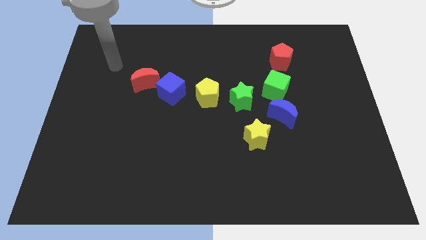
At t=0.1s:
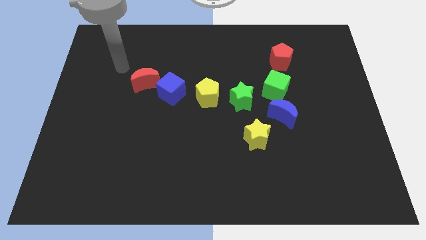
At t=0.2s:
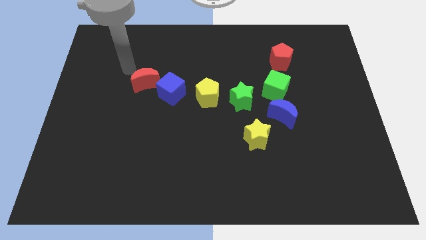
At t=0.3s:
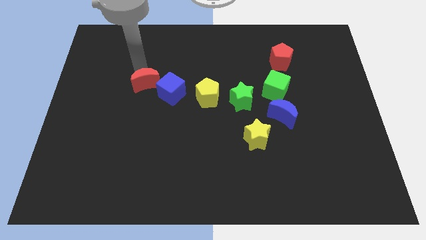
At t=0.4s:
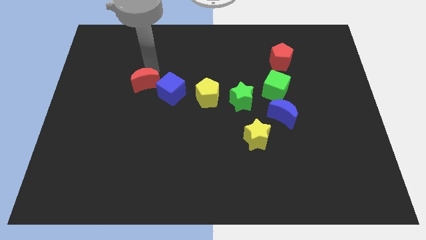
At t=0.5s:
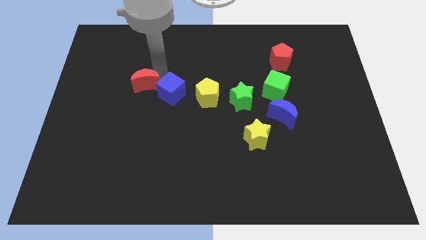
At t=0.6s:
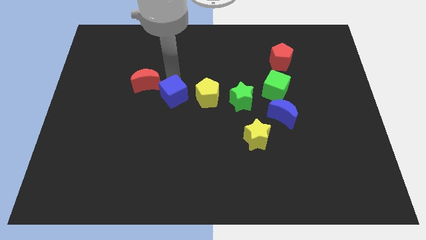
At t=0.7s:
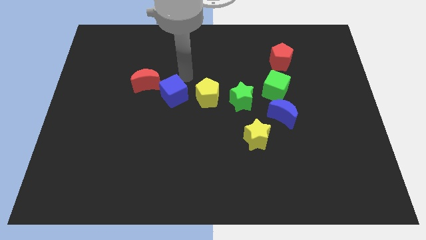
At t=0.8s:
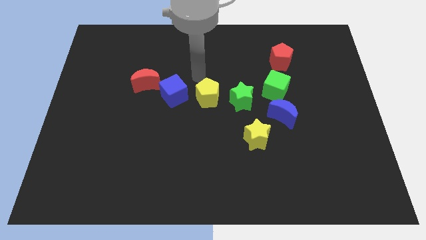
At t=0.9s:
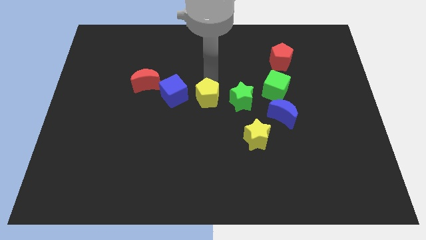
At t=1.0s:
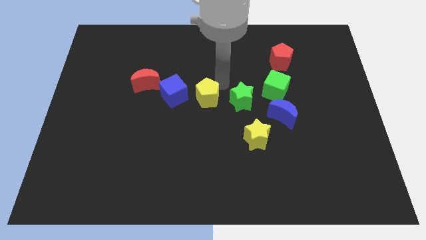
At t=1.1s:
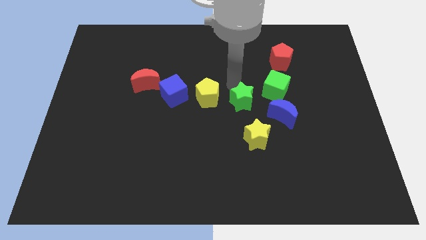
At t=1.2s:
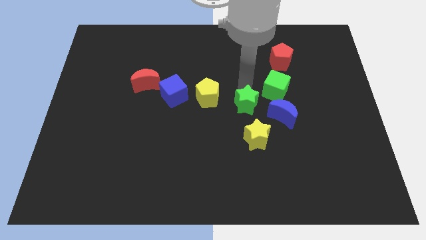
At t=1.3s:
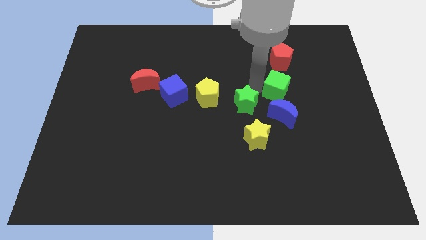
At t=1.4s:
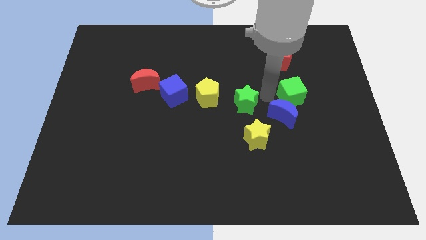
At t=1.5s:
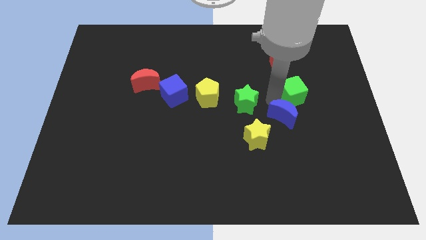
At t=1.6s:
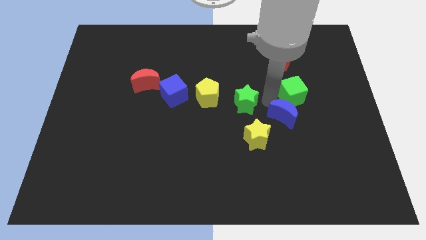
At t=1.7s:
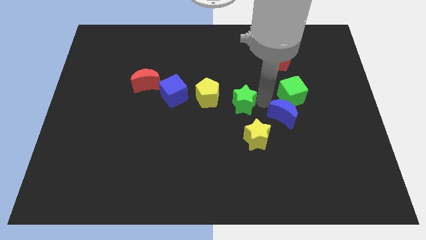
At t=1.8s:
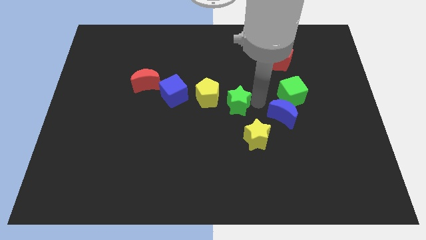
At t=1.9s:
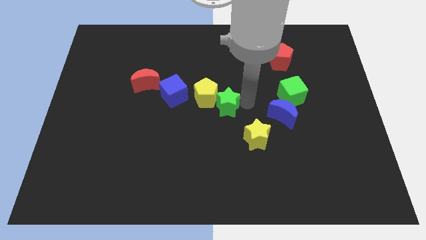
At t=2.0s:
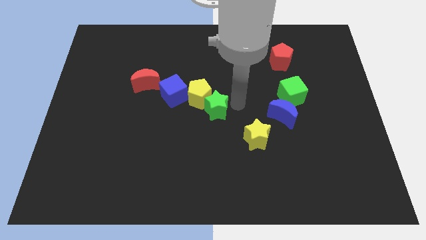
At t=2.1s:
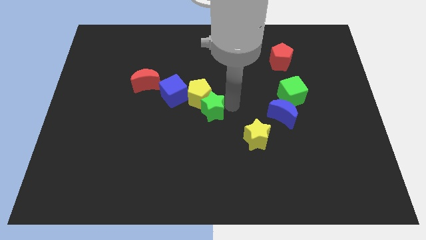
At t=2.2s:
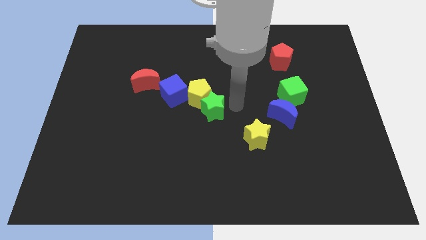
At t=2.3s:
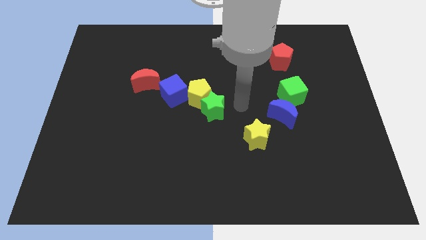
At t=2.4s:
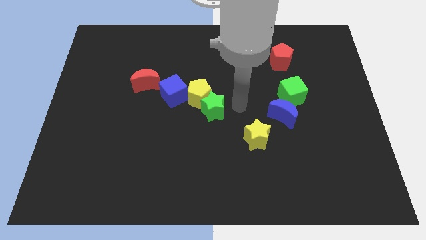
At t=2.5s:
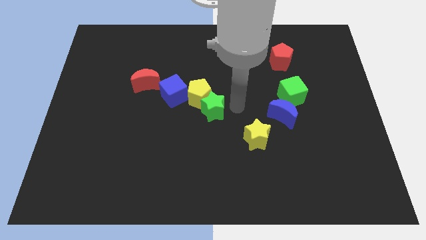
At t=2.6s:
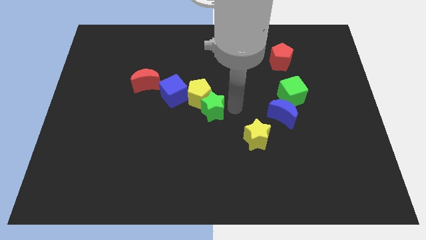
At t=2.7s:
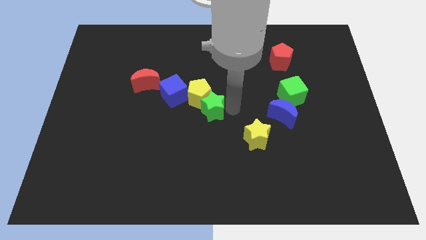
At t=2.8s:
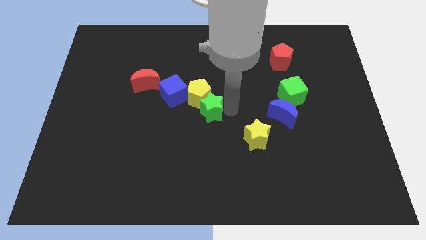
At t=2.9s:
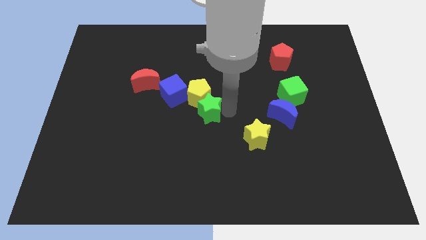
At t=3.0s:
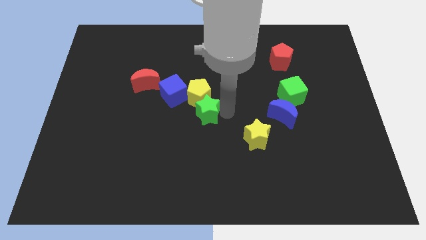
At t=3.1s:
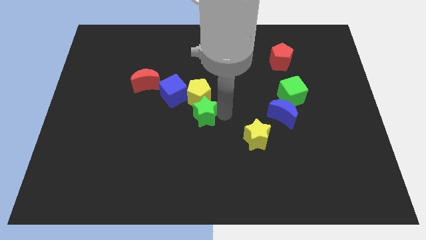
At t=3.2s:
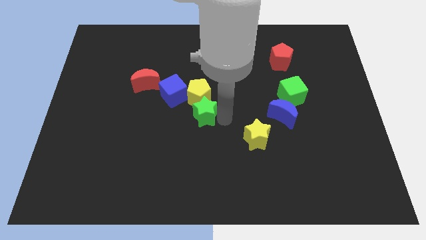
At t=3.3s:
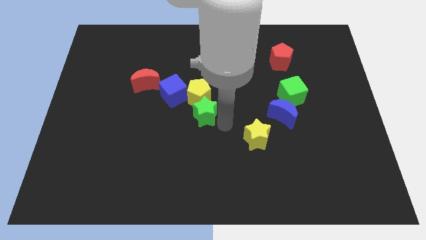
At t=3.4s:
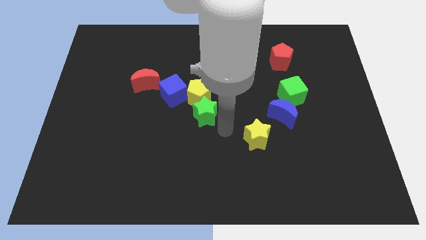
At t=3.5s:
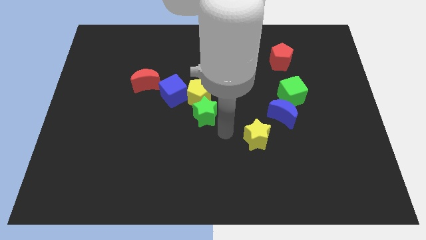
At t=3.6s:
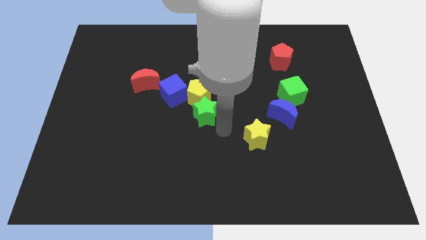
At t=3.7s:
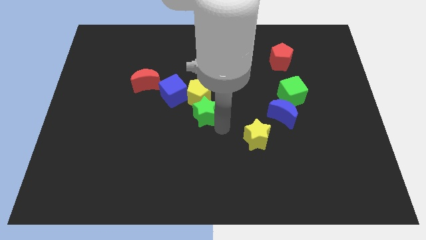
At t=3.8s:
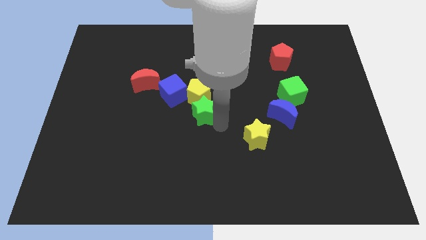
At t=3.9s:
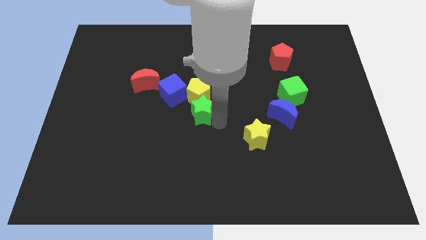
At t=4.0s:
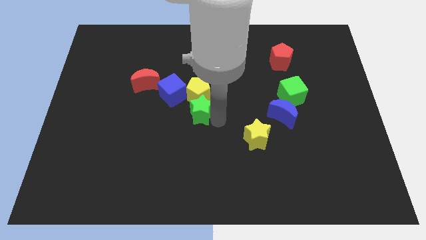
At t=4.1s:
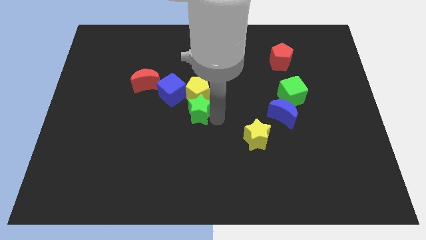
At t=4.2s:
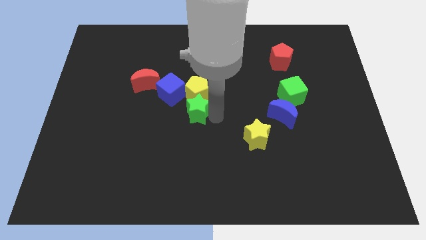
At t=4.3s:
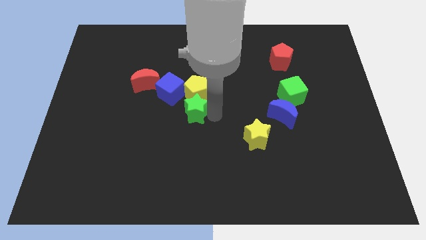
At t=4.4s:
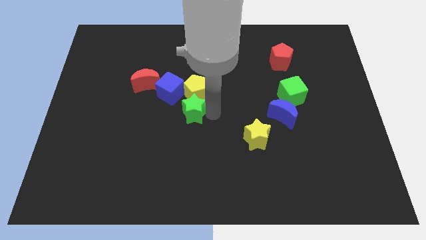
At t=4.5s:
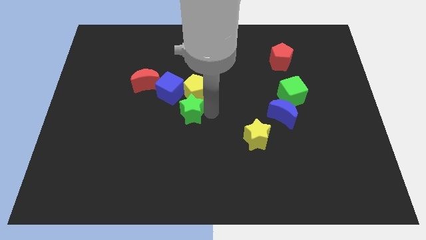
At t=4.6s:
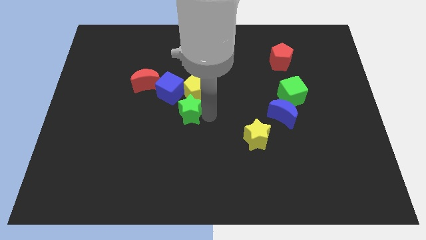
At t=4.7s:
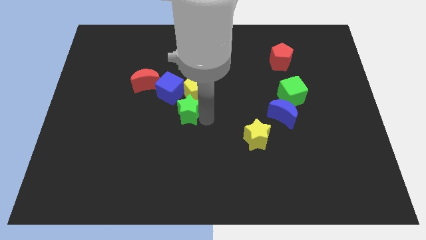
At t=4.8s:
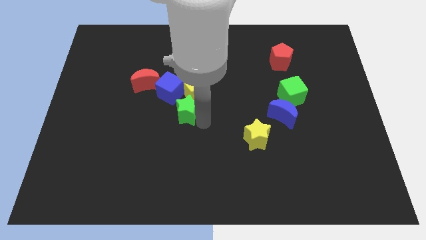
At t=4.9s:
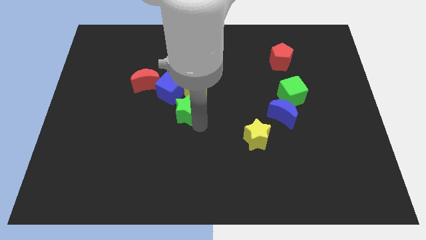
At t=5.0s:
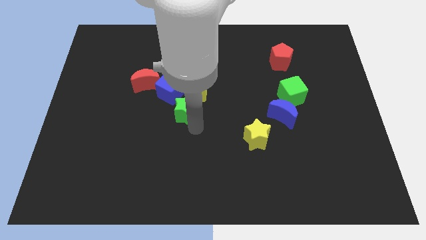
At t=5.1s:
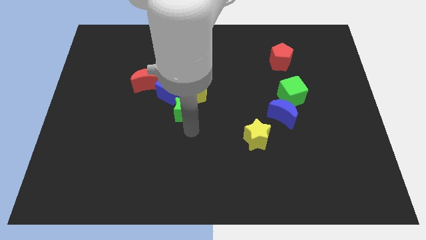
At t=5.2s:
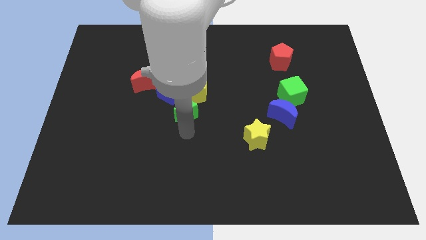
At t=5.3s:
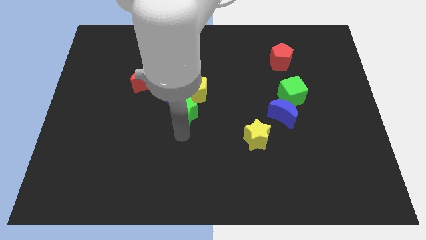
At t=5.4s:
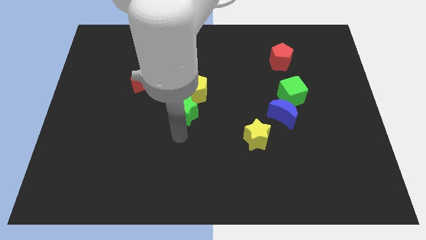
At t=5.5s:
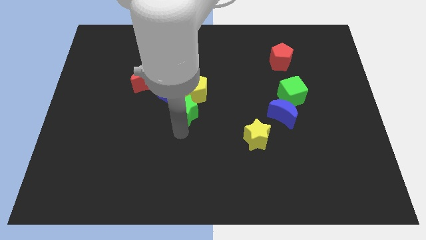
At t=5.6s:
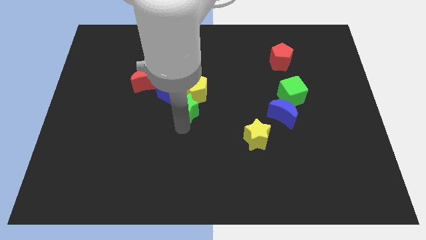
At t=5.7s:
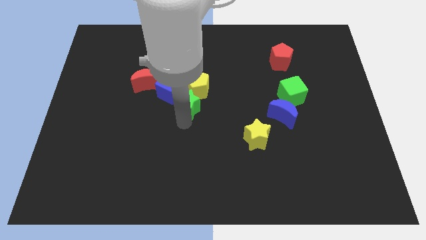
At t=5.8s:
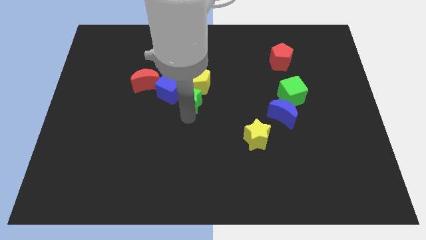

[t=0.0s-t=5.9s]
move the green star towards the blue cube

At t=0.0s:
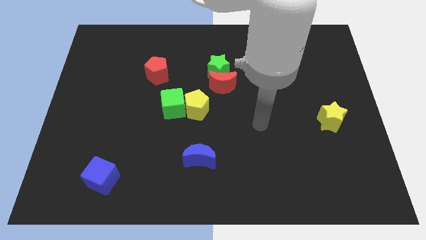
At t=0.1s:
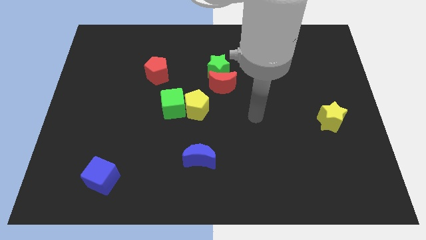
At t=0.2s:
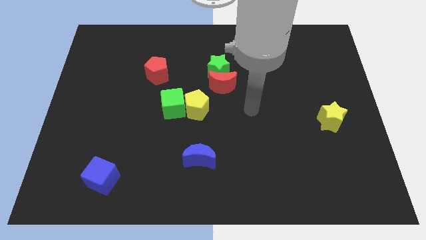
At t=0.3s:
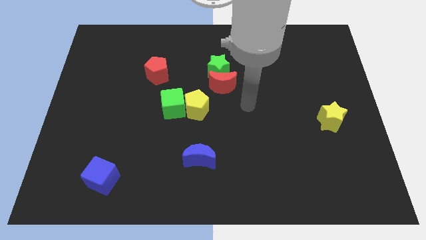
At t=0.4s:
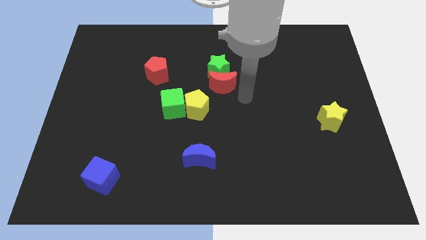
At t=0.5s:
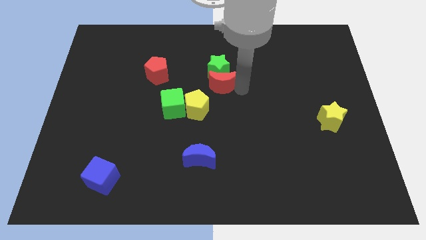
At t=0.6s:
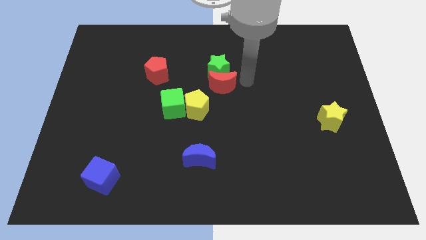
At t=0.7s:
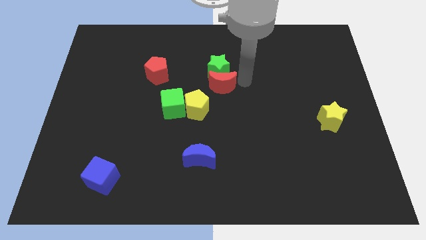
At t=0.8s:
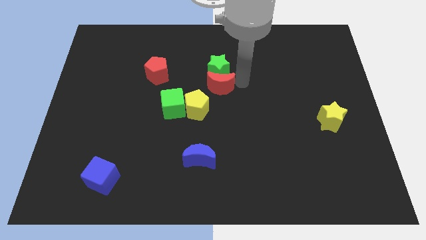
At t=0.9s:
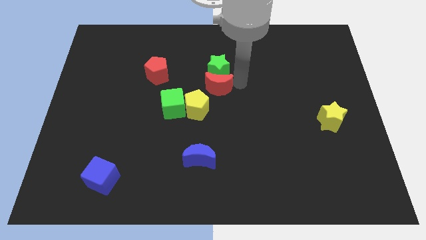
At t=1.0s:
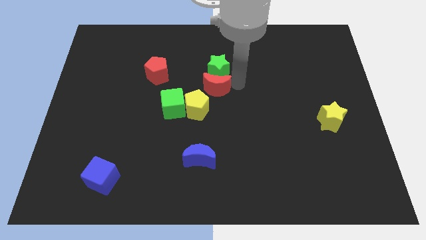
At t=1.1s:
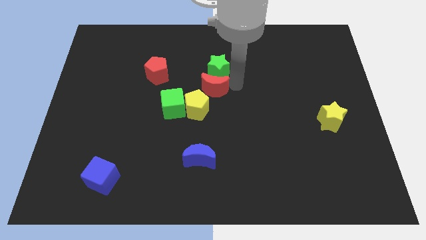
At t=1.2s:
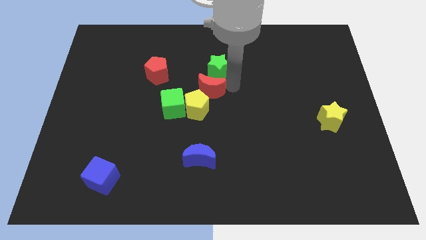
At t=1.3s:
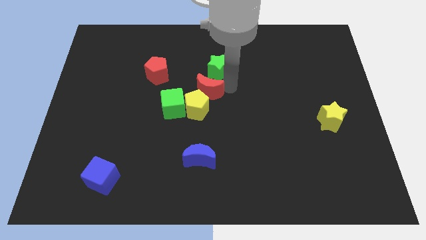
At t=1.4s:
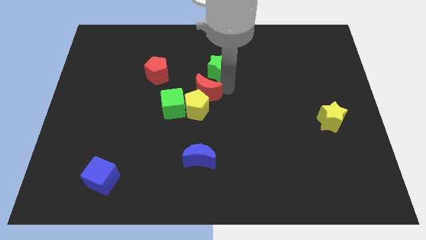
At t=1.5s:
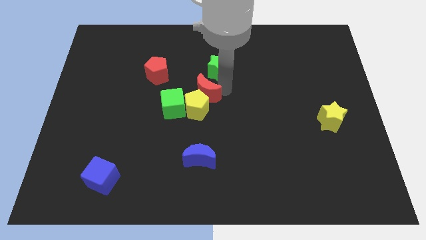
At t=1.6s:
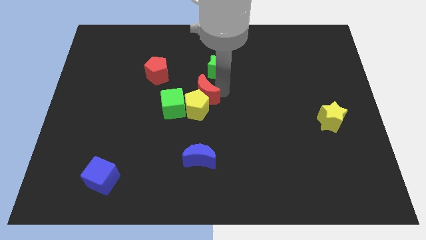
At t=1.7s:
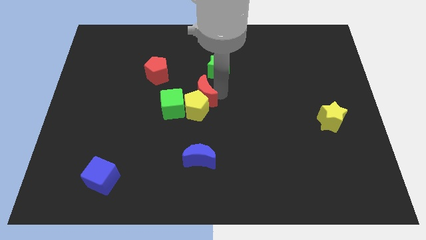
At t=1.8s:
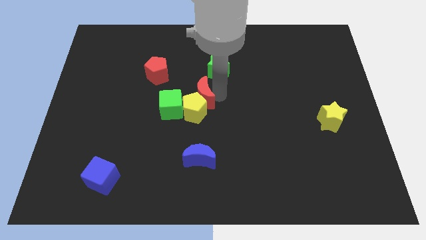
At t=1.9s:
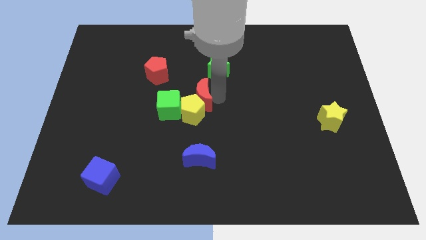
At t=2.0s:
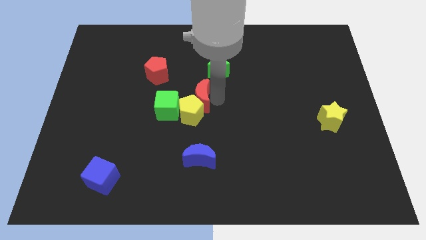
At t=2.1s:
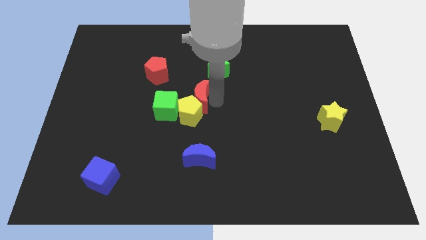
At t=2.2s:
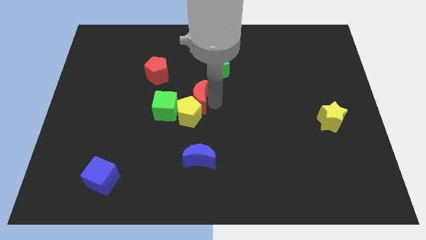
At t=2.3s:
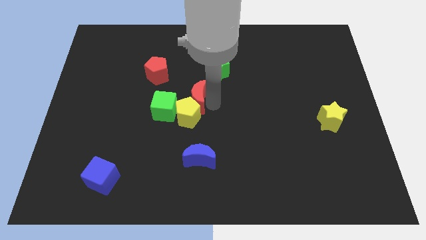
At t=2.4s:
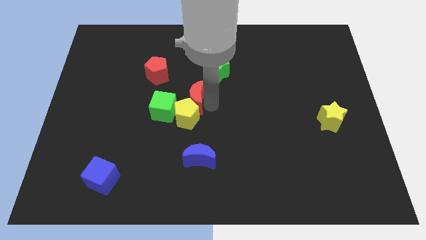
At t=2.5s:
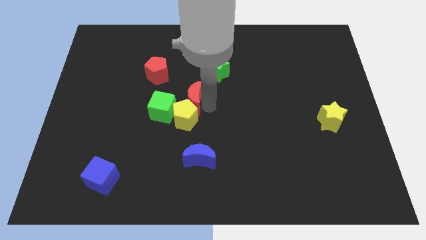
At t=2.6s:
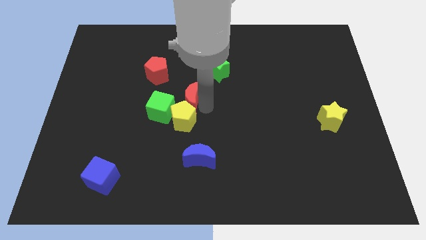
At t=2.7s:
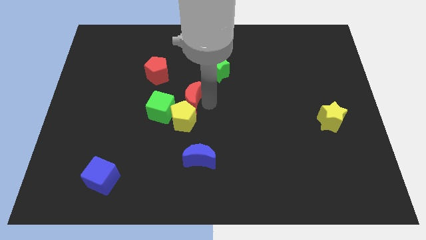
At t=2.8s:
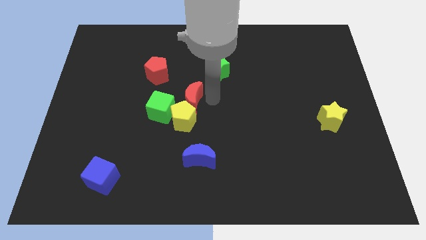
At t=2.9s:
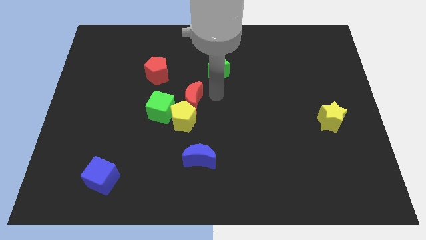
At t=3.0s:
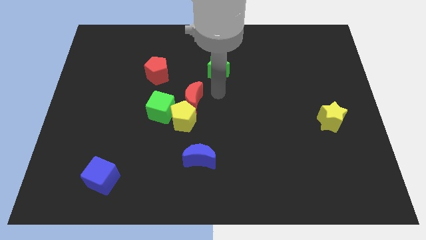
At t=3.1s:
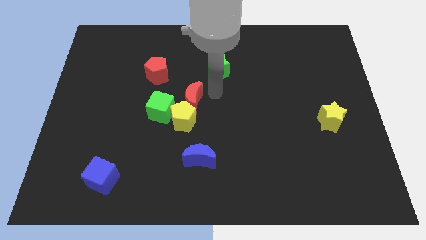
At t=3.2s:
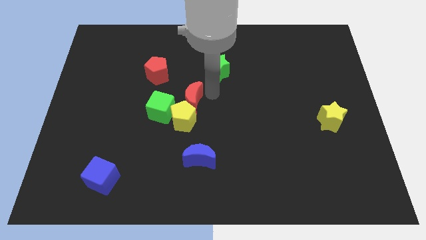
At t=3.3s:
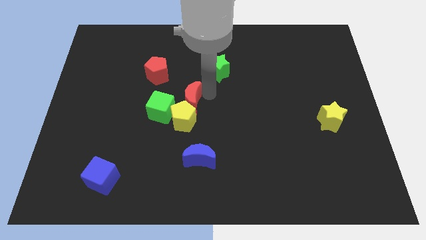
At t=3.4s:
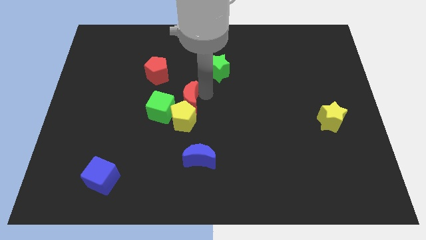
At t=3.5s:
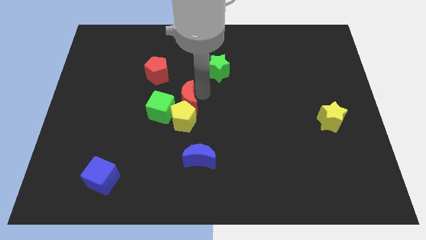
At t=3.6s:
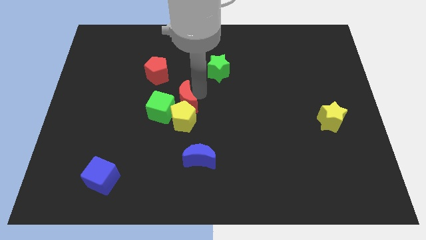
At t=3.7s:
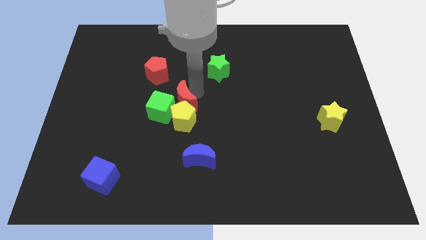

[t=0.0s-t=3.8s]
put the red moon to the green cube
